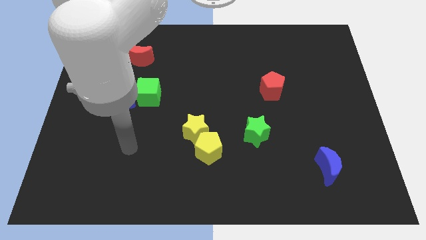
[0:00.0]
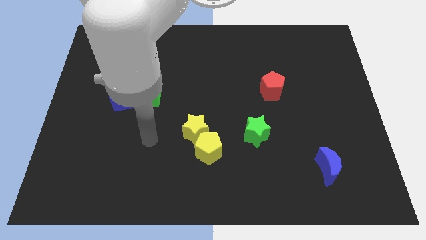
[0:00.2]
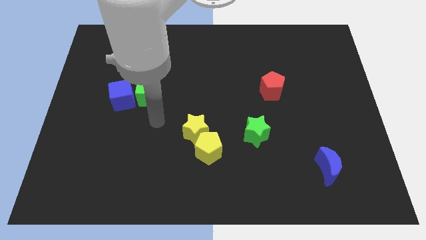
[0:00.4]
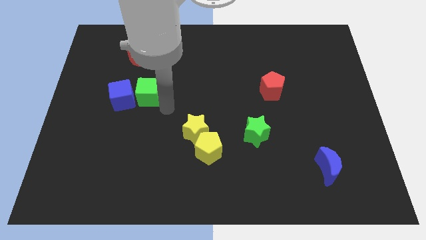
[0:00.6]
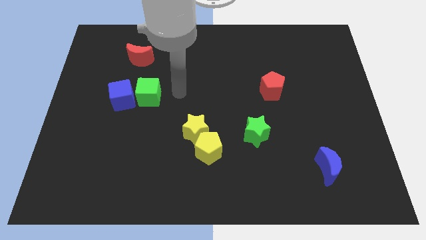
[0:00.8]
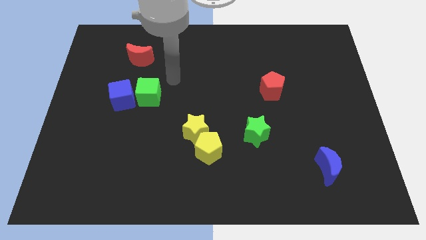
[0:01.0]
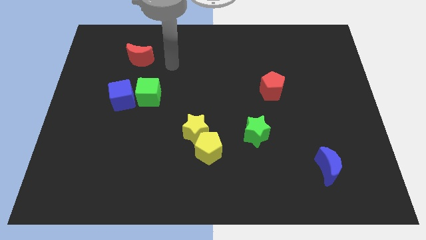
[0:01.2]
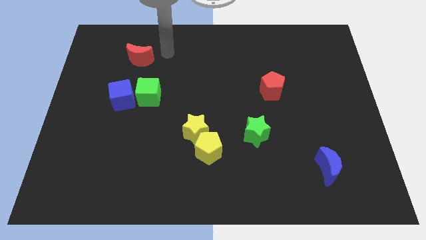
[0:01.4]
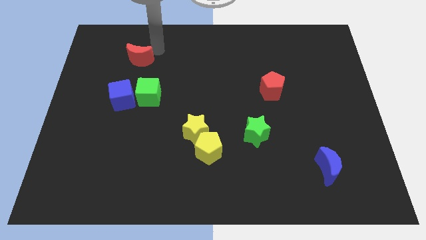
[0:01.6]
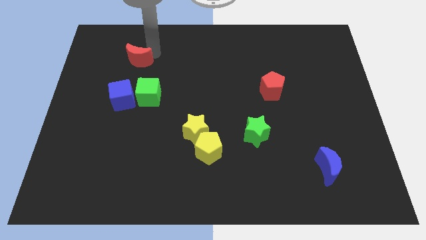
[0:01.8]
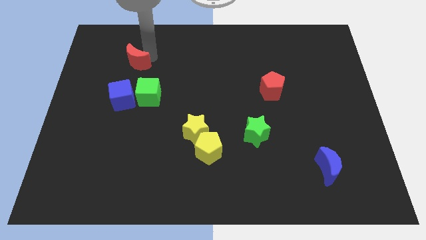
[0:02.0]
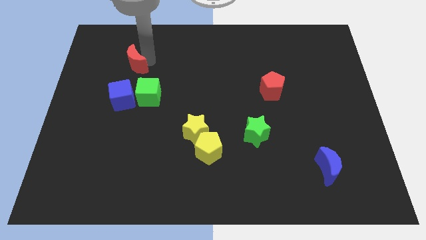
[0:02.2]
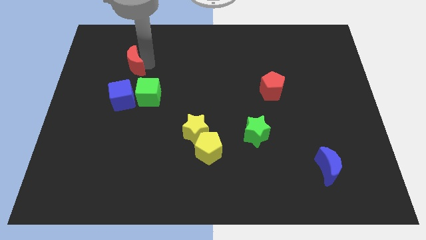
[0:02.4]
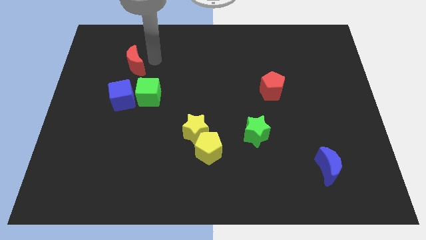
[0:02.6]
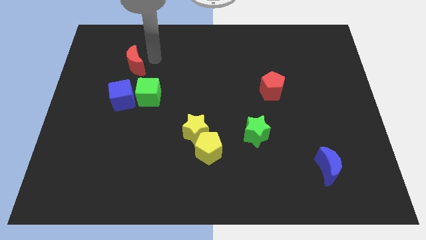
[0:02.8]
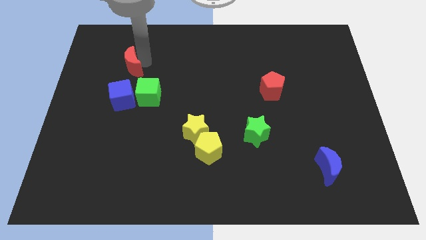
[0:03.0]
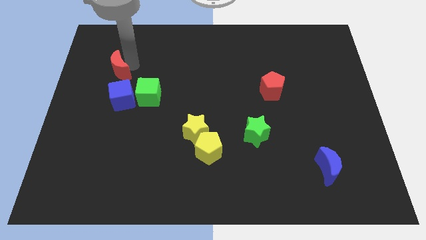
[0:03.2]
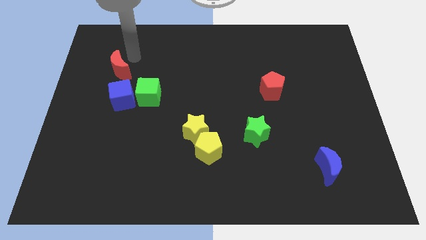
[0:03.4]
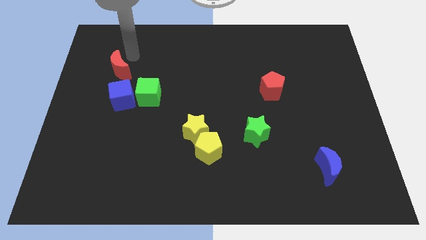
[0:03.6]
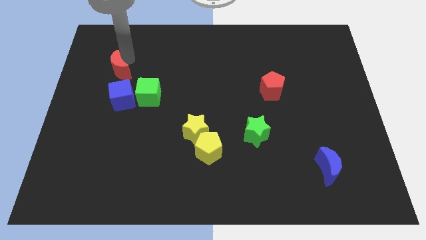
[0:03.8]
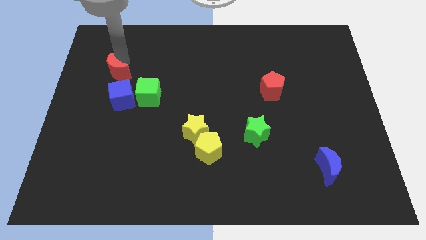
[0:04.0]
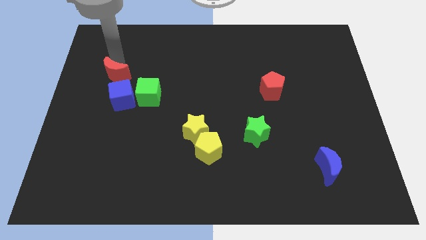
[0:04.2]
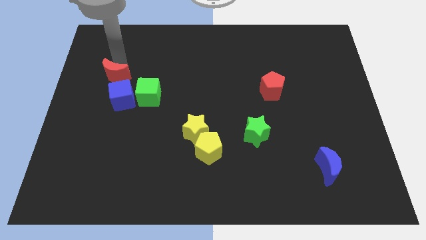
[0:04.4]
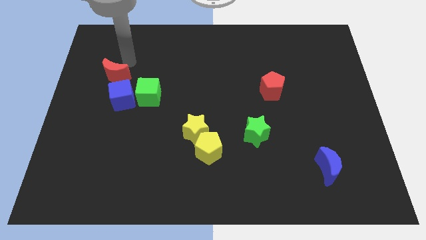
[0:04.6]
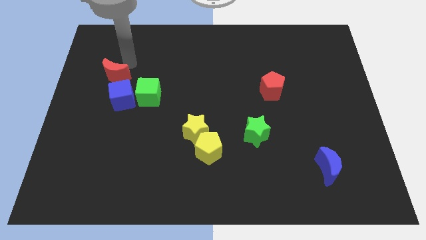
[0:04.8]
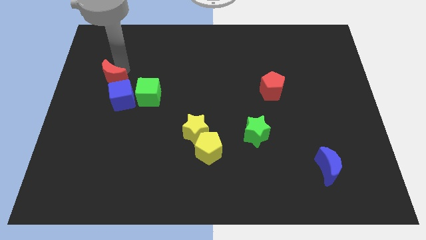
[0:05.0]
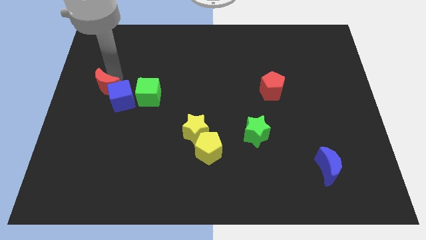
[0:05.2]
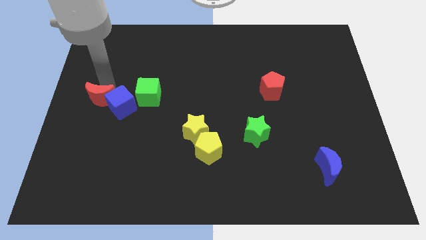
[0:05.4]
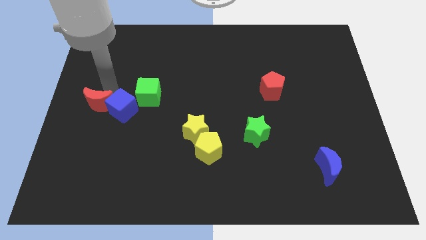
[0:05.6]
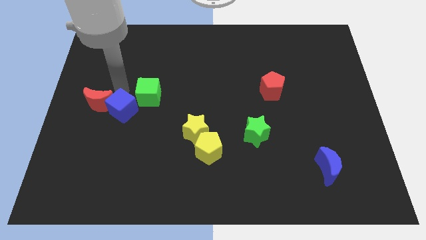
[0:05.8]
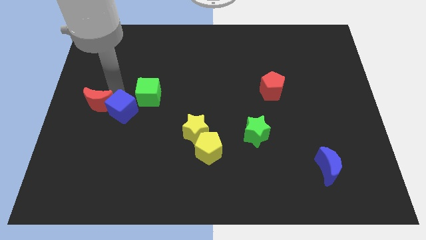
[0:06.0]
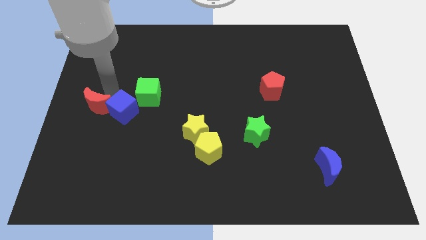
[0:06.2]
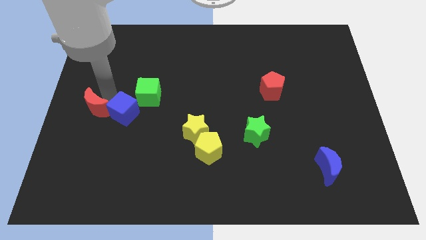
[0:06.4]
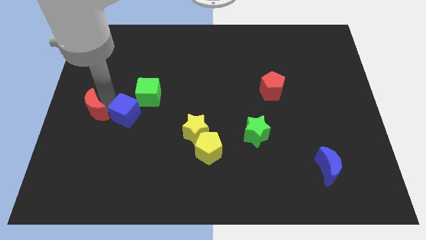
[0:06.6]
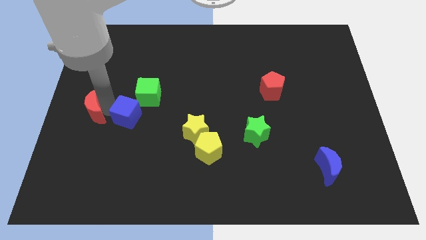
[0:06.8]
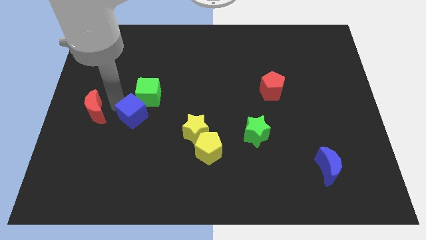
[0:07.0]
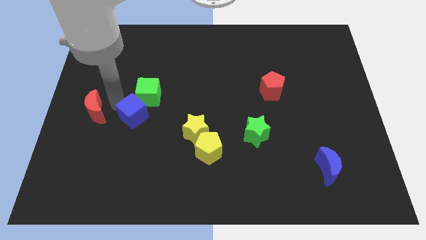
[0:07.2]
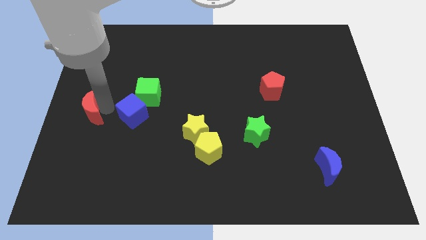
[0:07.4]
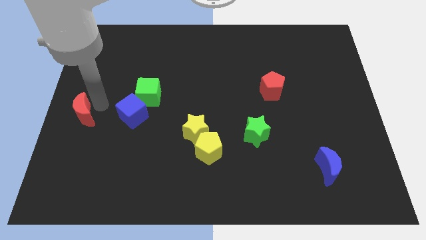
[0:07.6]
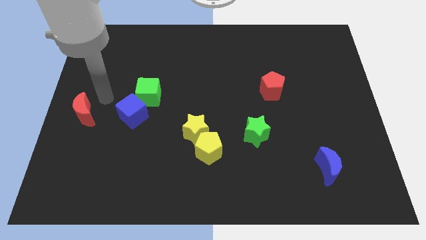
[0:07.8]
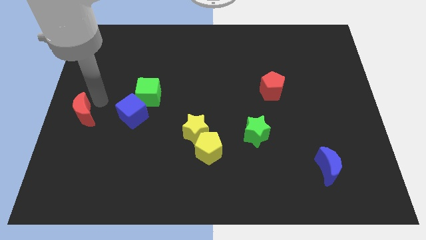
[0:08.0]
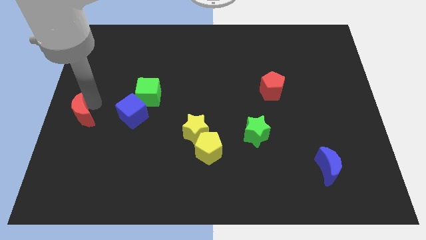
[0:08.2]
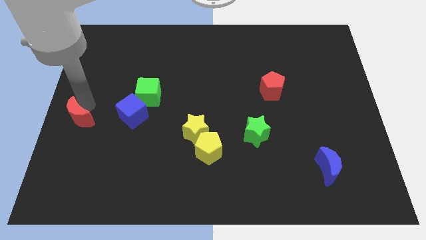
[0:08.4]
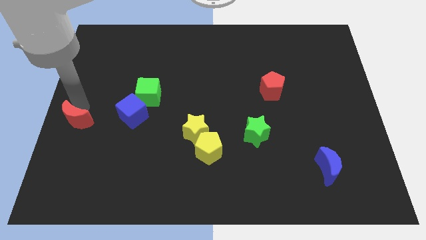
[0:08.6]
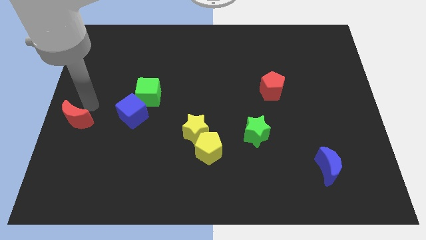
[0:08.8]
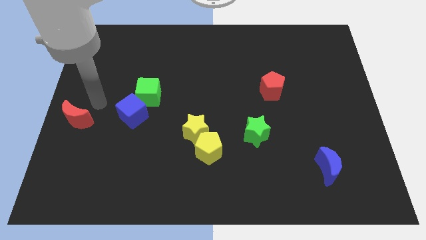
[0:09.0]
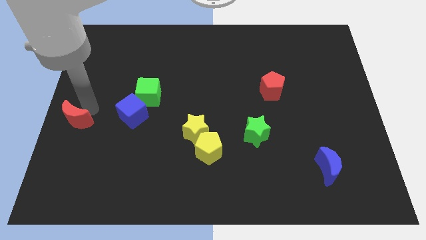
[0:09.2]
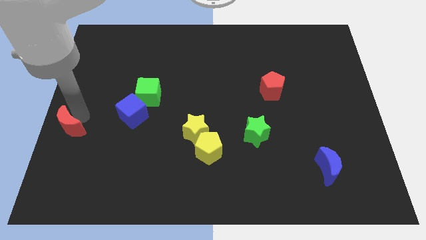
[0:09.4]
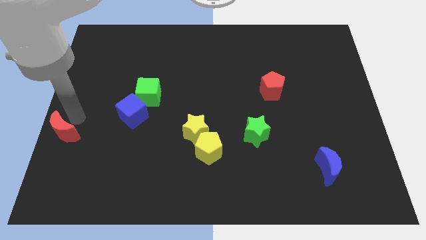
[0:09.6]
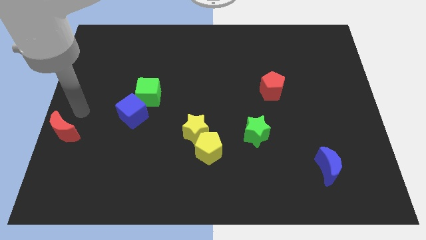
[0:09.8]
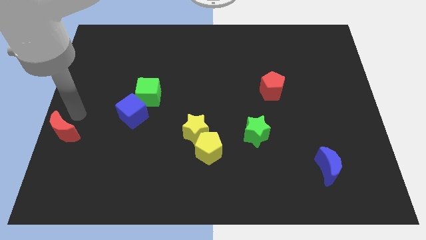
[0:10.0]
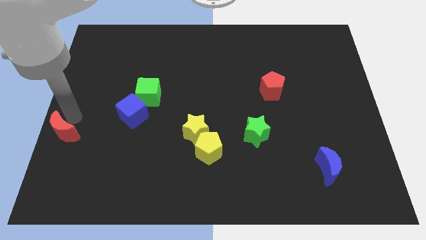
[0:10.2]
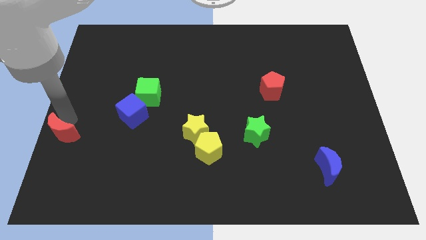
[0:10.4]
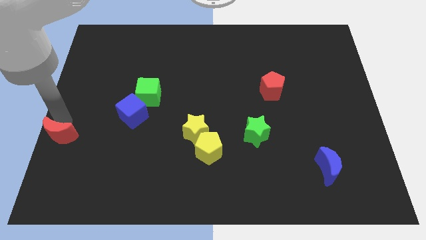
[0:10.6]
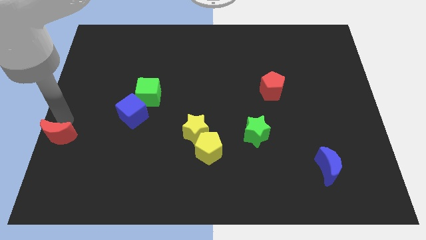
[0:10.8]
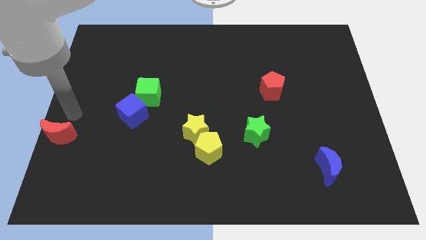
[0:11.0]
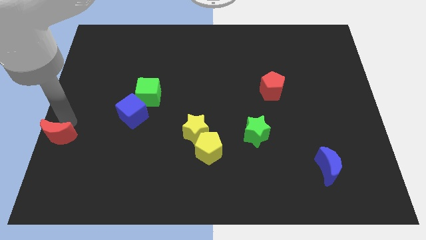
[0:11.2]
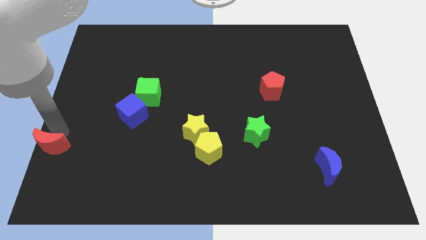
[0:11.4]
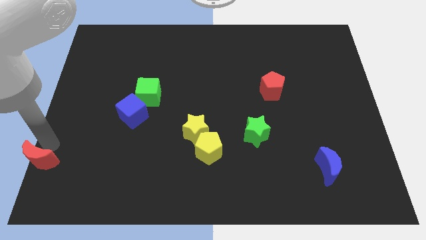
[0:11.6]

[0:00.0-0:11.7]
slide the red moon to the bottom left corner

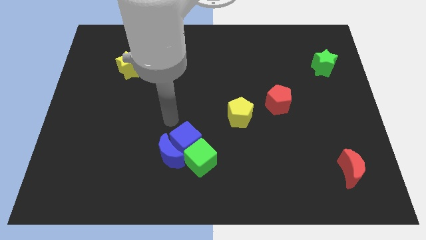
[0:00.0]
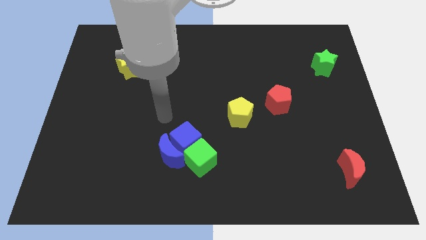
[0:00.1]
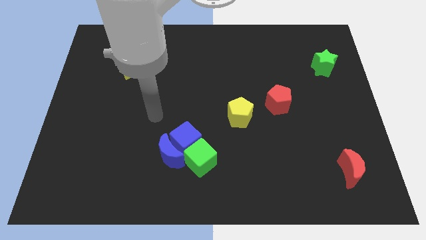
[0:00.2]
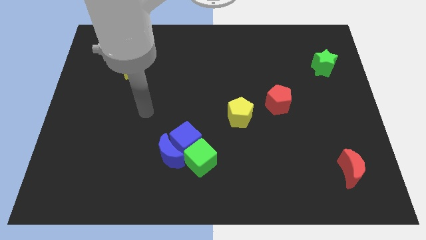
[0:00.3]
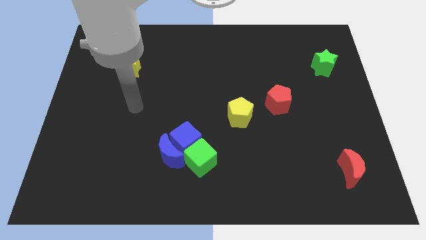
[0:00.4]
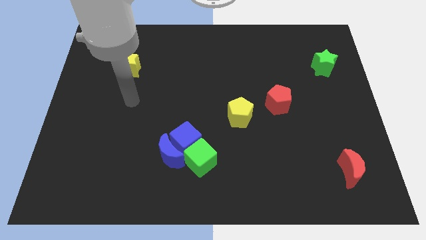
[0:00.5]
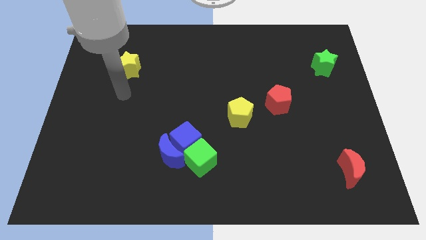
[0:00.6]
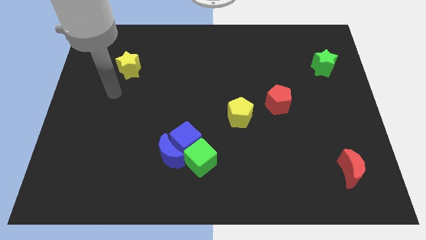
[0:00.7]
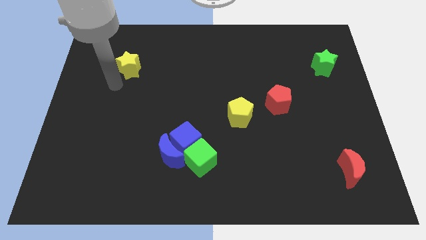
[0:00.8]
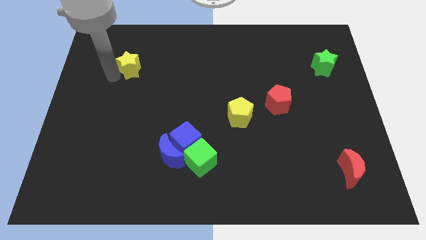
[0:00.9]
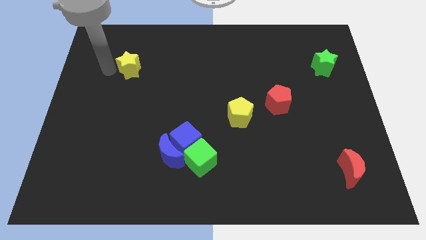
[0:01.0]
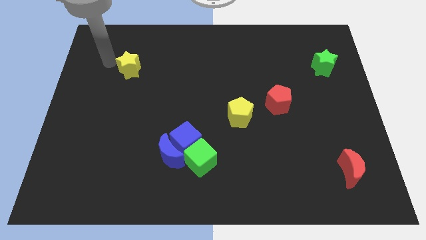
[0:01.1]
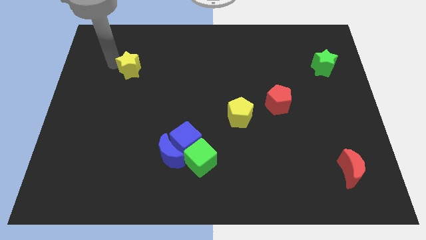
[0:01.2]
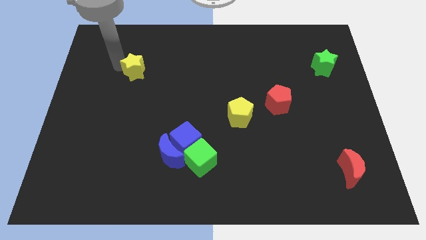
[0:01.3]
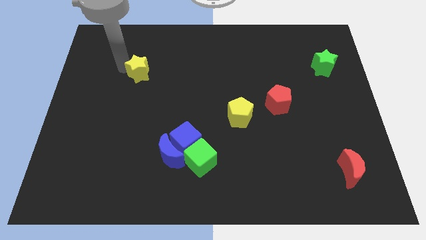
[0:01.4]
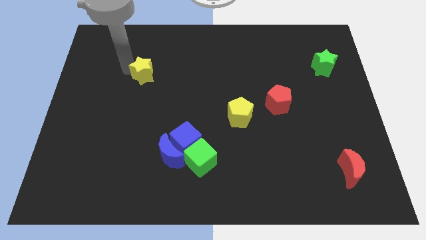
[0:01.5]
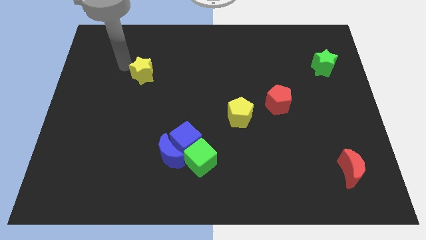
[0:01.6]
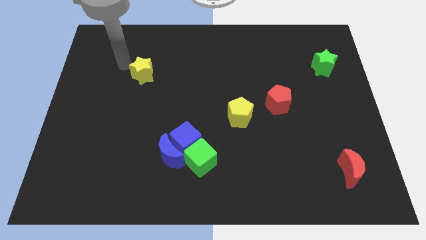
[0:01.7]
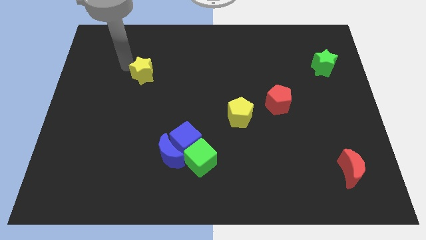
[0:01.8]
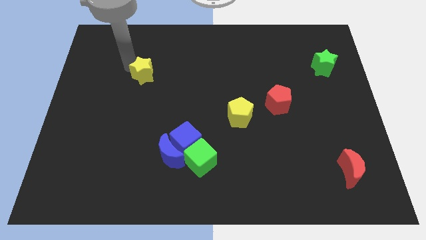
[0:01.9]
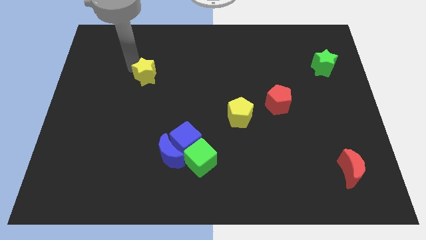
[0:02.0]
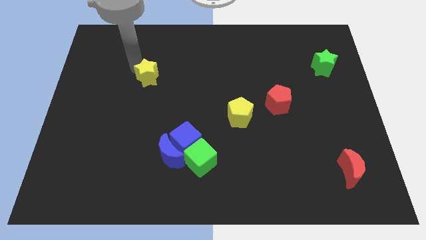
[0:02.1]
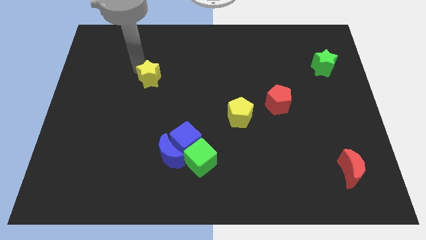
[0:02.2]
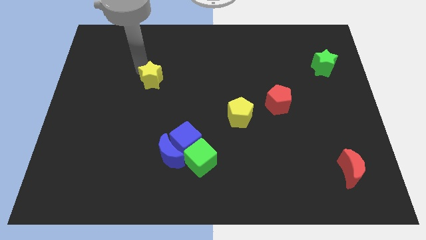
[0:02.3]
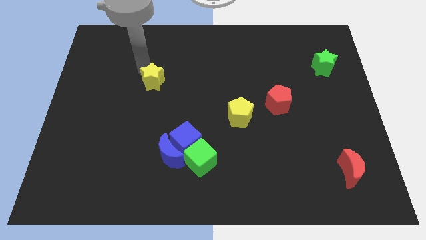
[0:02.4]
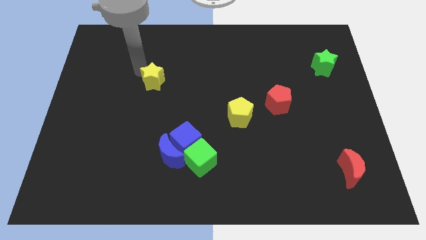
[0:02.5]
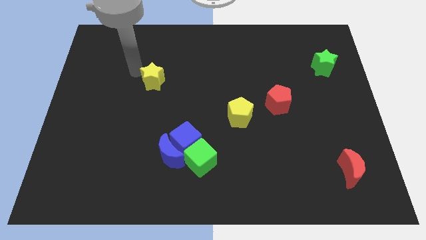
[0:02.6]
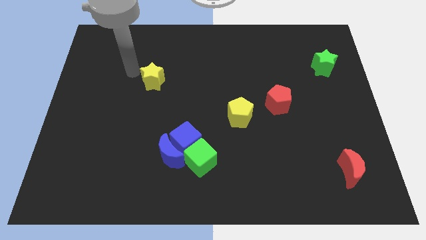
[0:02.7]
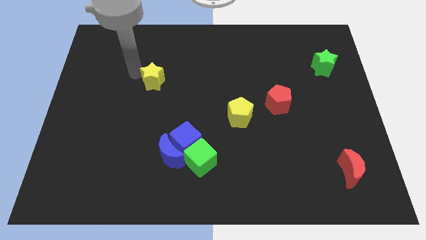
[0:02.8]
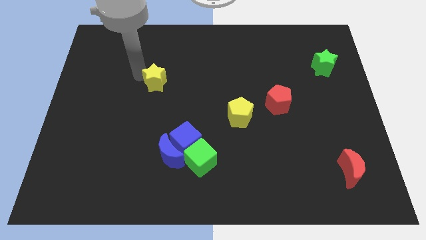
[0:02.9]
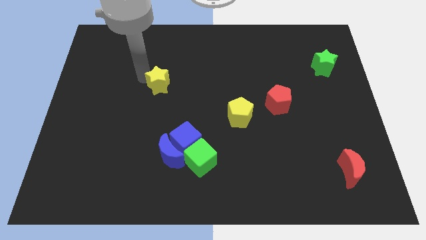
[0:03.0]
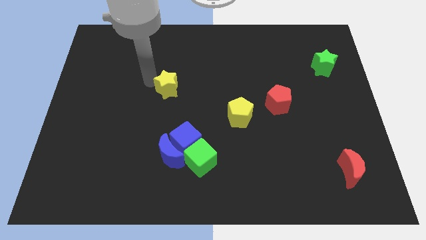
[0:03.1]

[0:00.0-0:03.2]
push the yellow star to the center
